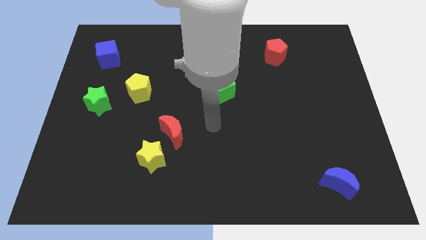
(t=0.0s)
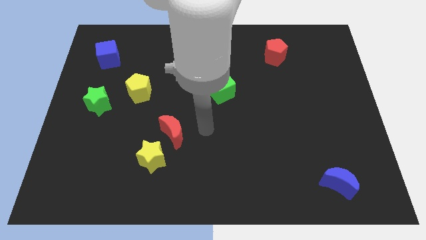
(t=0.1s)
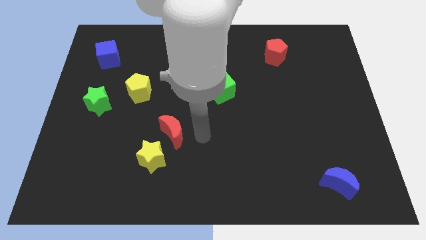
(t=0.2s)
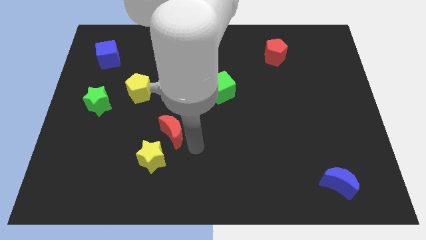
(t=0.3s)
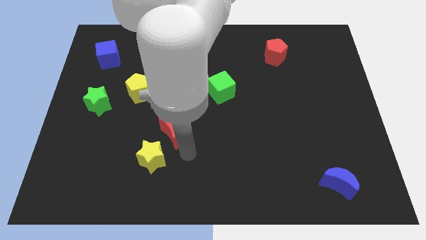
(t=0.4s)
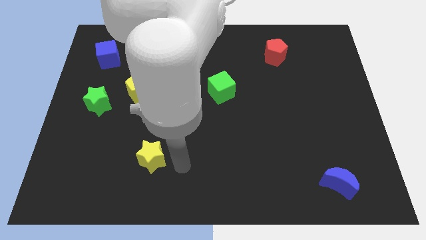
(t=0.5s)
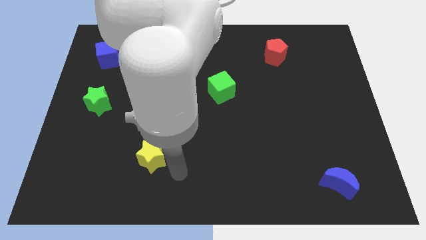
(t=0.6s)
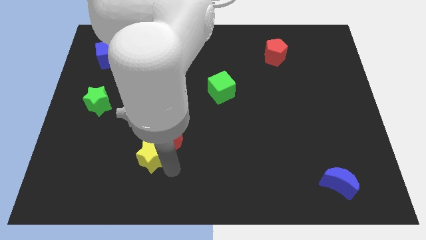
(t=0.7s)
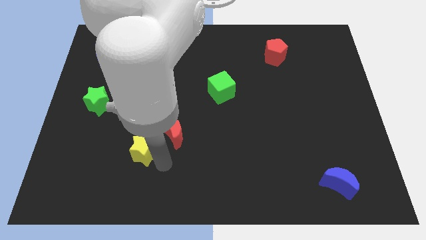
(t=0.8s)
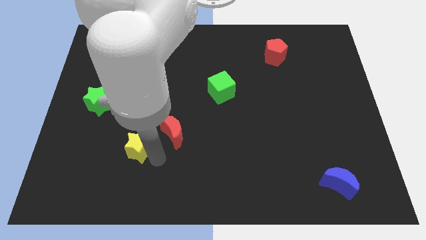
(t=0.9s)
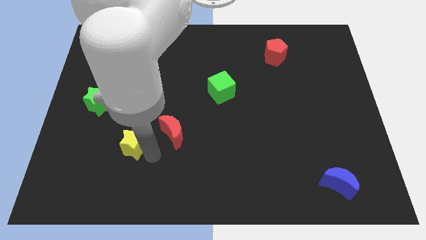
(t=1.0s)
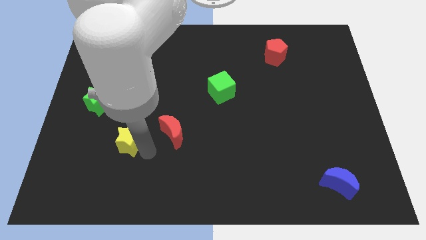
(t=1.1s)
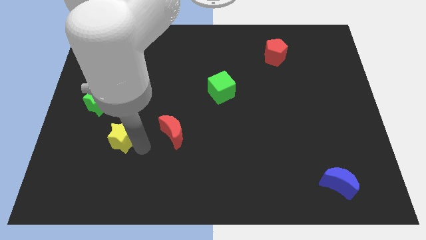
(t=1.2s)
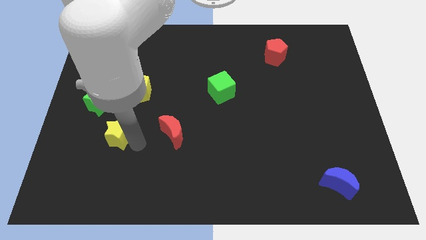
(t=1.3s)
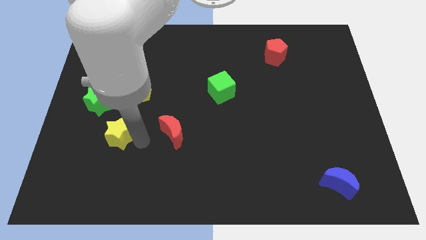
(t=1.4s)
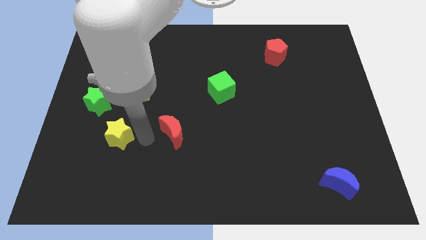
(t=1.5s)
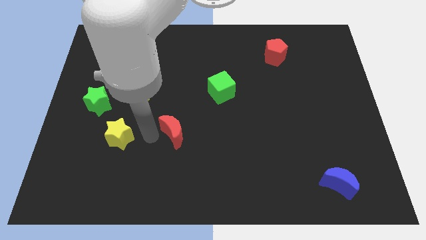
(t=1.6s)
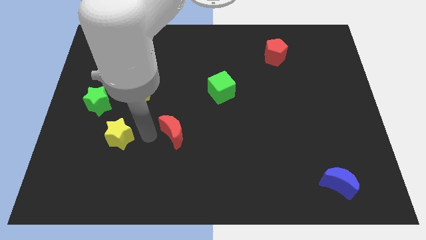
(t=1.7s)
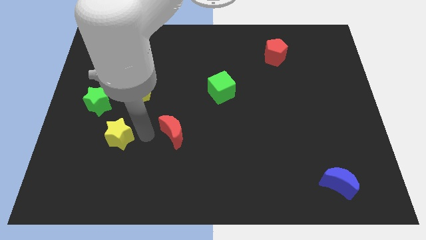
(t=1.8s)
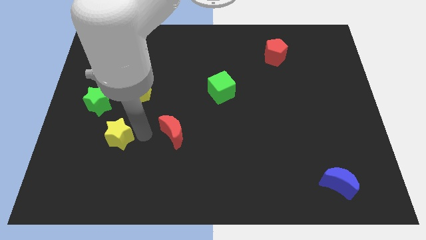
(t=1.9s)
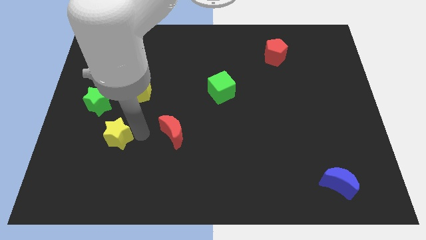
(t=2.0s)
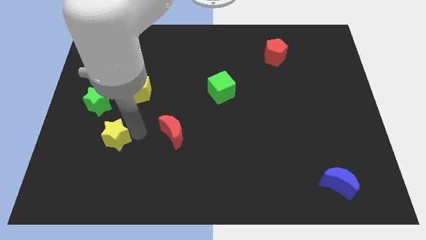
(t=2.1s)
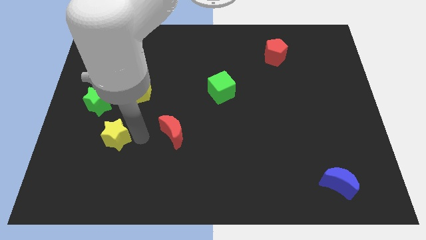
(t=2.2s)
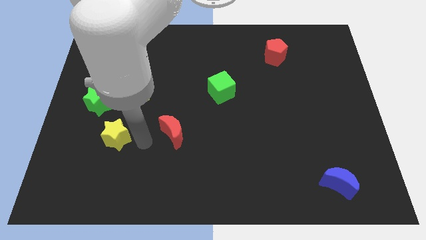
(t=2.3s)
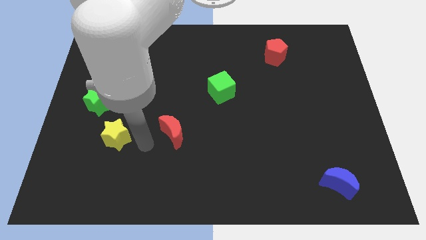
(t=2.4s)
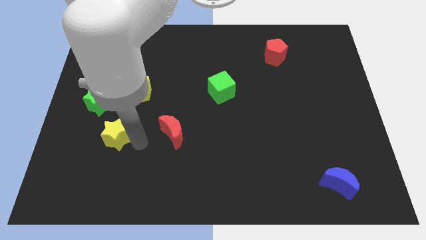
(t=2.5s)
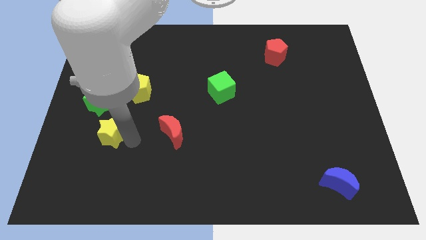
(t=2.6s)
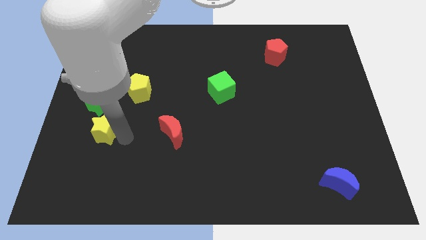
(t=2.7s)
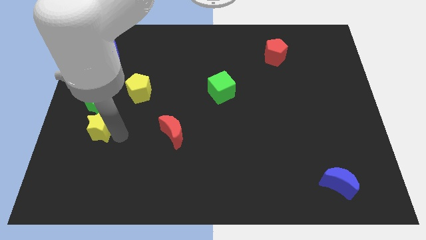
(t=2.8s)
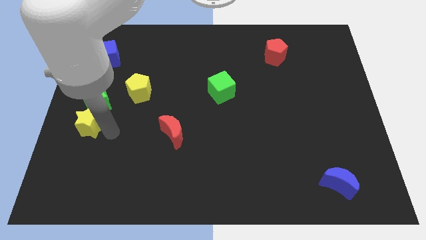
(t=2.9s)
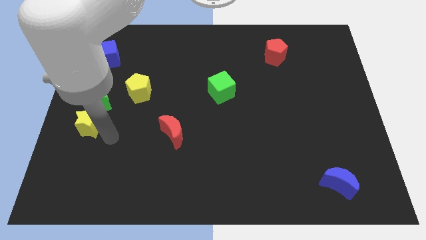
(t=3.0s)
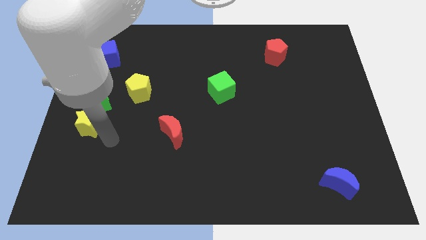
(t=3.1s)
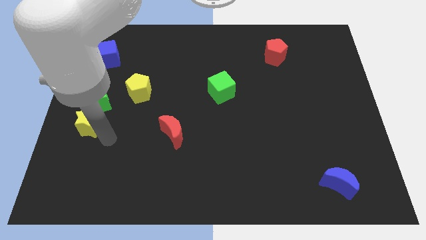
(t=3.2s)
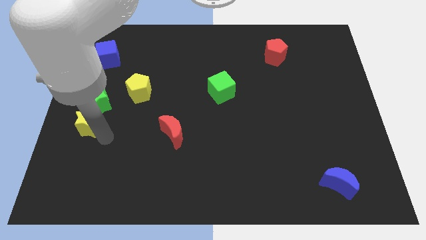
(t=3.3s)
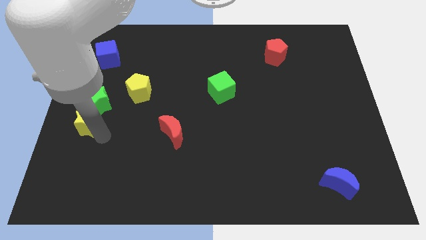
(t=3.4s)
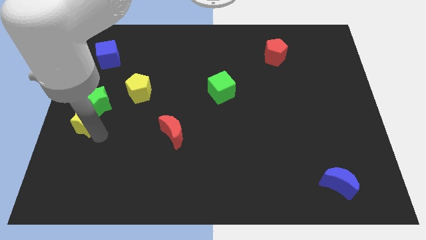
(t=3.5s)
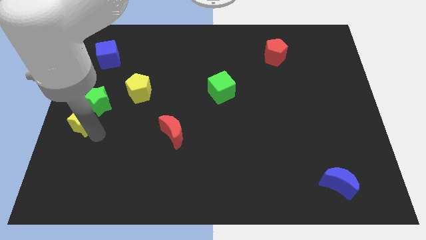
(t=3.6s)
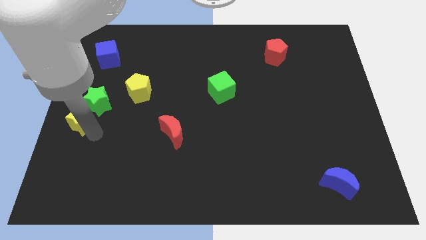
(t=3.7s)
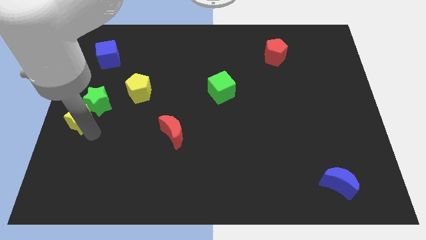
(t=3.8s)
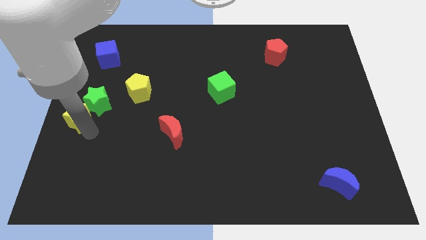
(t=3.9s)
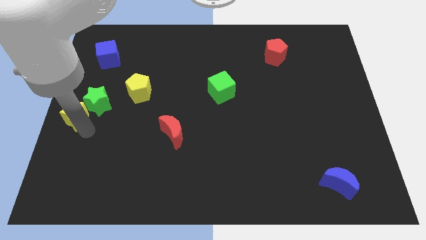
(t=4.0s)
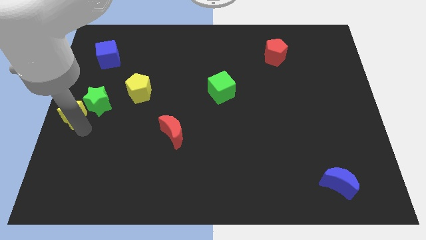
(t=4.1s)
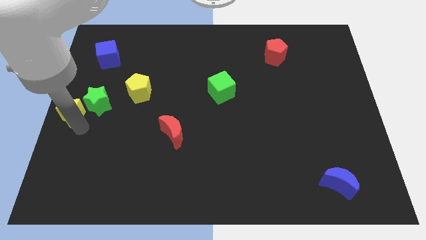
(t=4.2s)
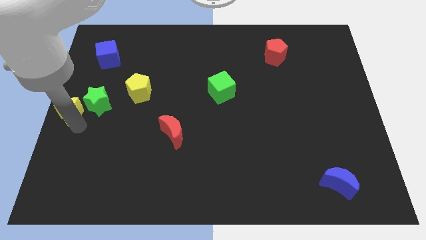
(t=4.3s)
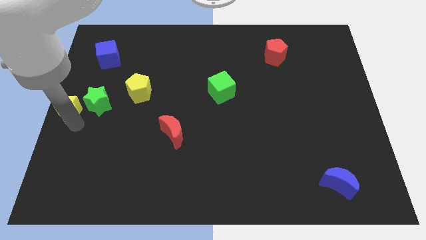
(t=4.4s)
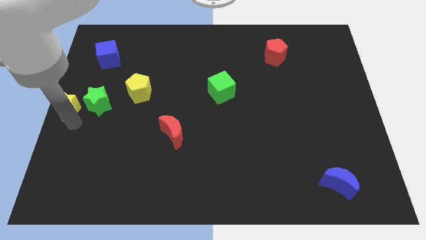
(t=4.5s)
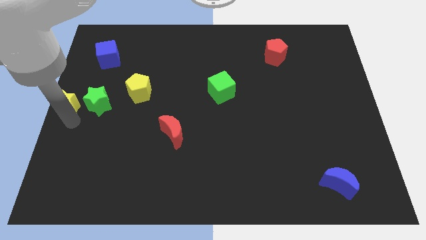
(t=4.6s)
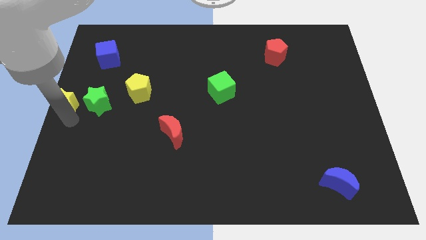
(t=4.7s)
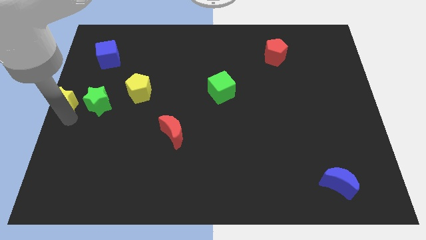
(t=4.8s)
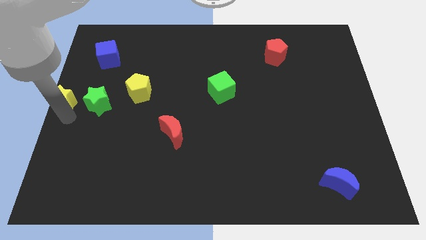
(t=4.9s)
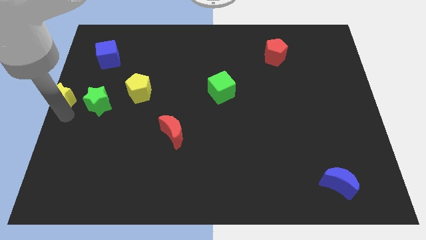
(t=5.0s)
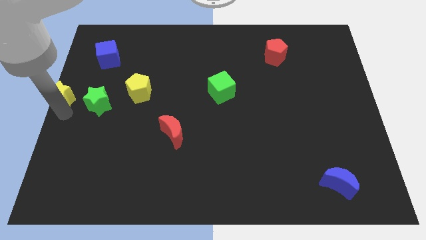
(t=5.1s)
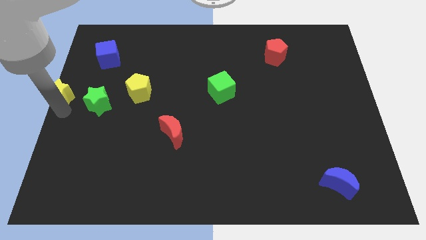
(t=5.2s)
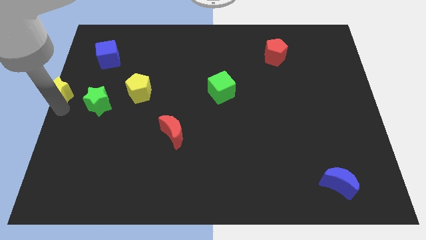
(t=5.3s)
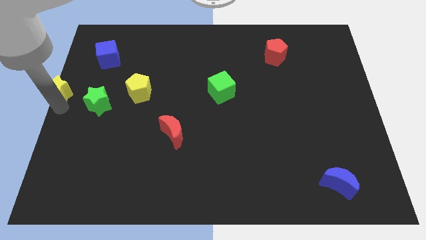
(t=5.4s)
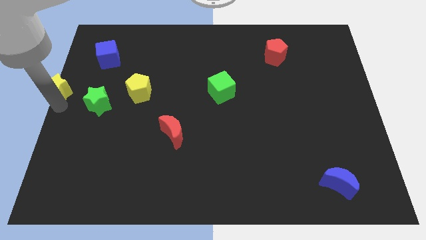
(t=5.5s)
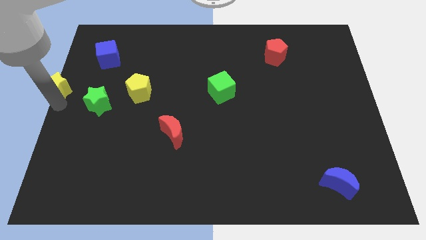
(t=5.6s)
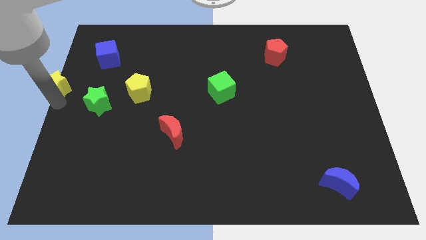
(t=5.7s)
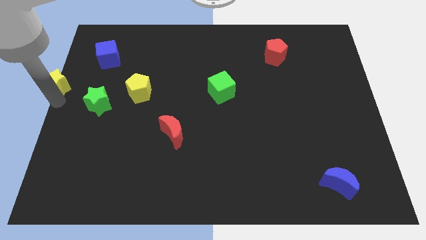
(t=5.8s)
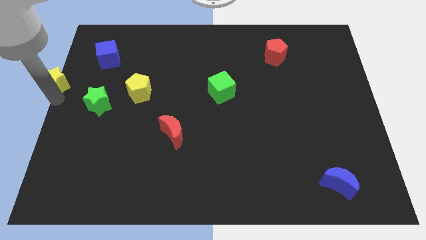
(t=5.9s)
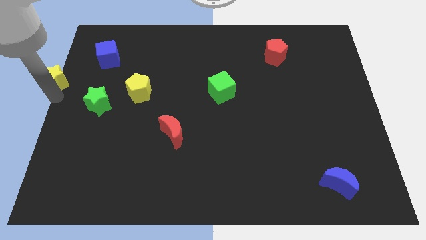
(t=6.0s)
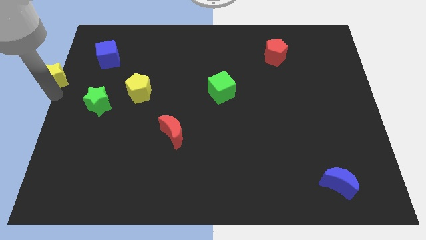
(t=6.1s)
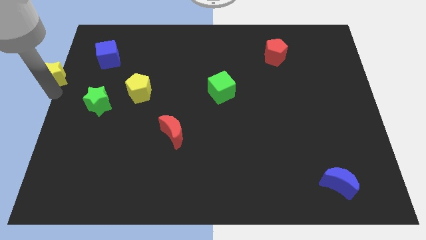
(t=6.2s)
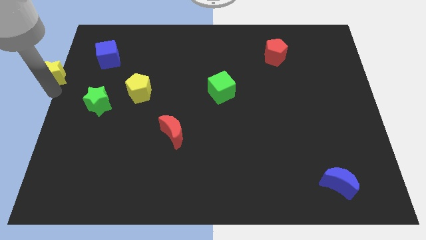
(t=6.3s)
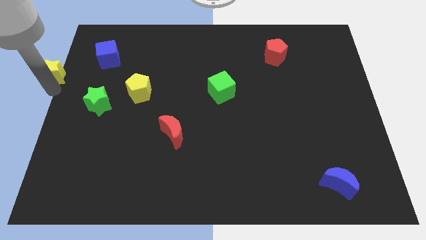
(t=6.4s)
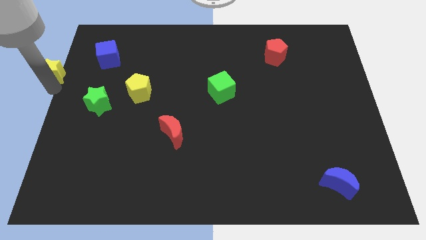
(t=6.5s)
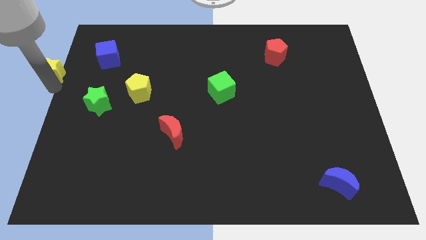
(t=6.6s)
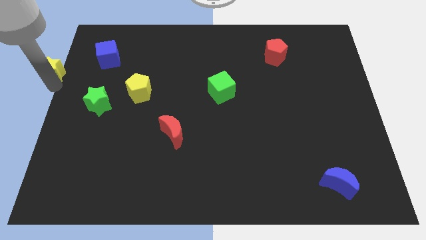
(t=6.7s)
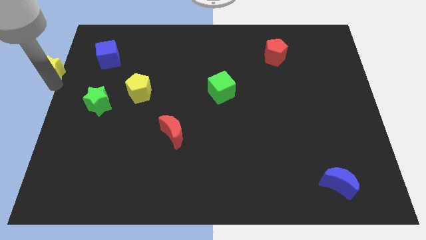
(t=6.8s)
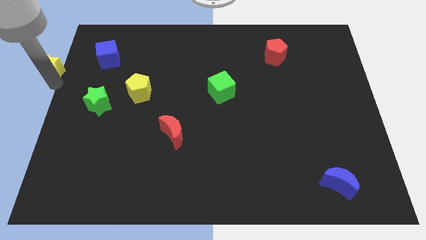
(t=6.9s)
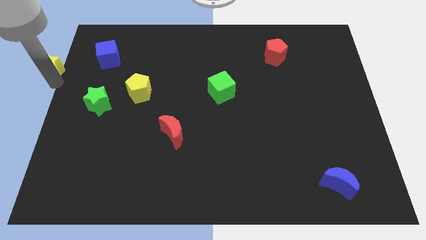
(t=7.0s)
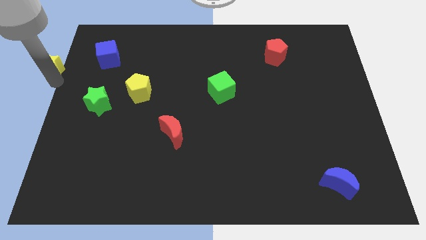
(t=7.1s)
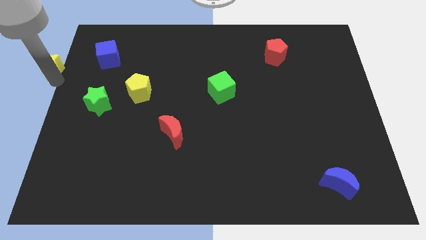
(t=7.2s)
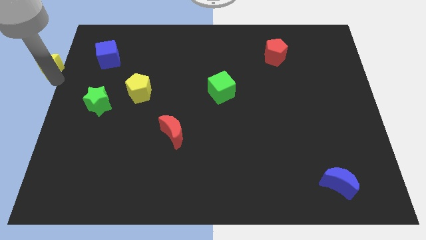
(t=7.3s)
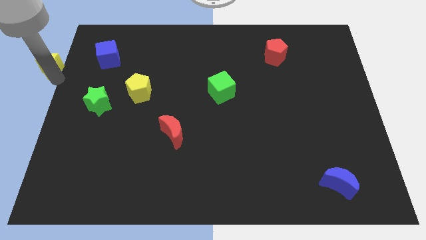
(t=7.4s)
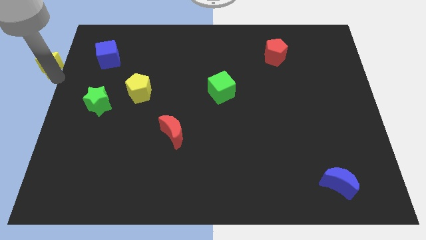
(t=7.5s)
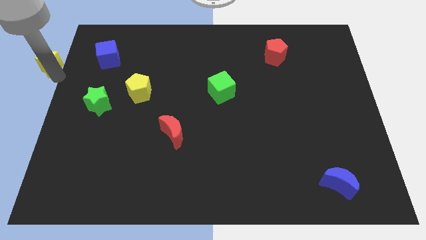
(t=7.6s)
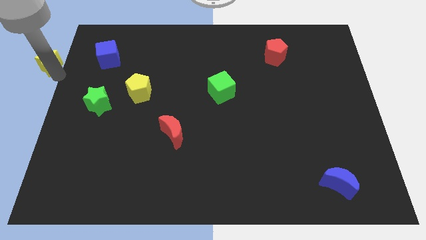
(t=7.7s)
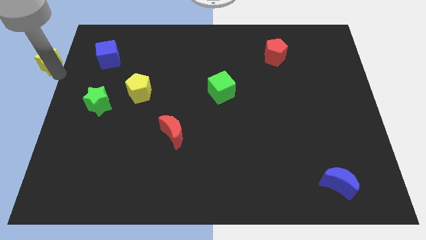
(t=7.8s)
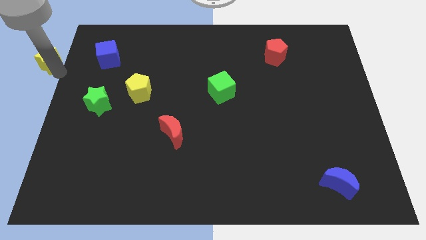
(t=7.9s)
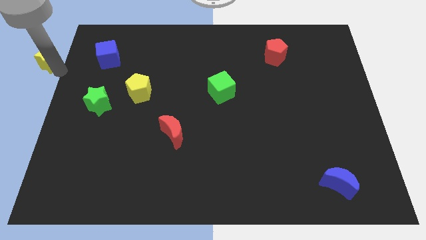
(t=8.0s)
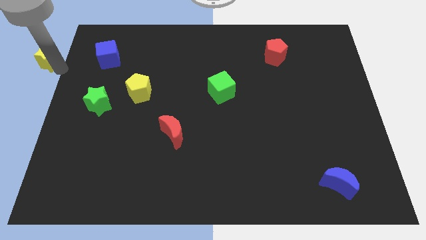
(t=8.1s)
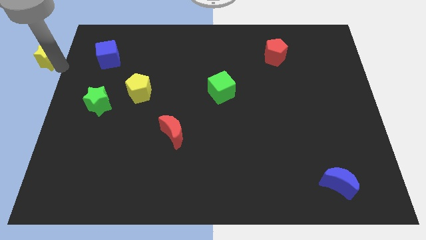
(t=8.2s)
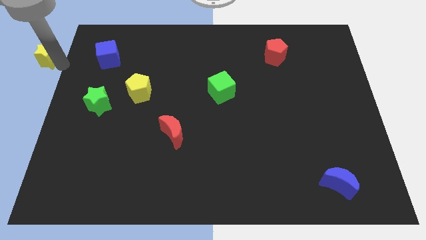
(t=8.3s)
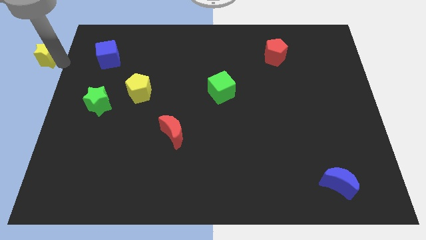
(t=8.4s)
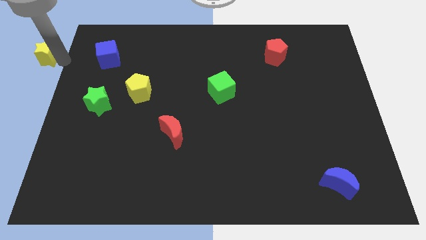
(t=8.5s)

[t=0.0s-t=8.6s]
move the yellow star to the top left
